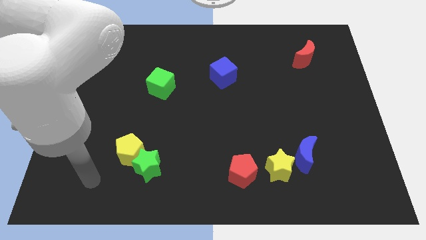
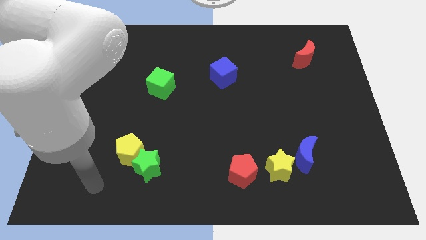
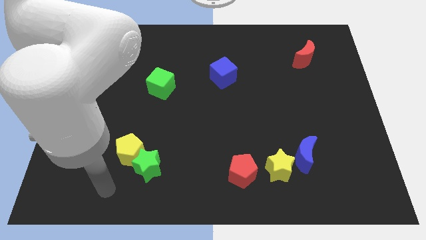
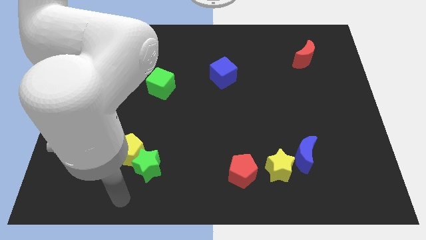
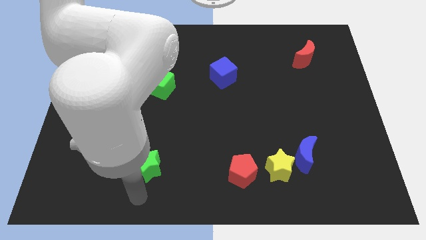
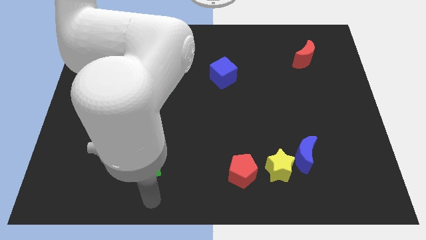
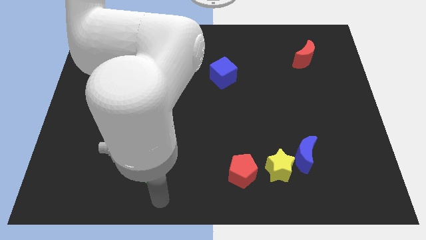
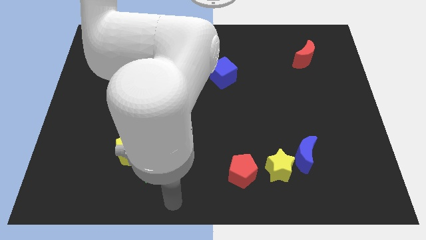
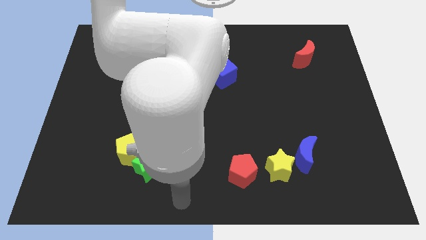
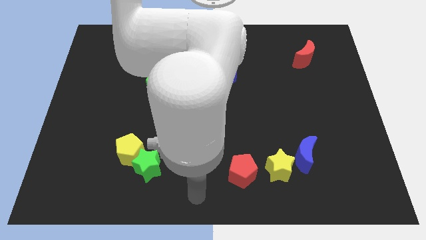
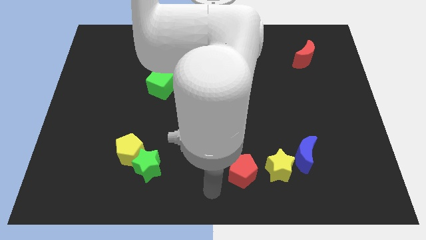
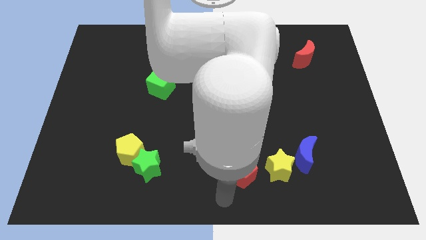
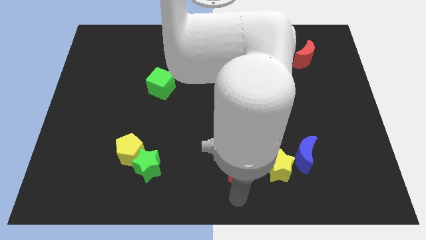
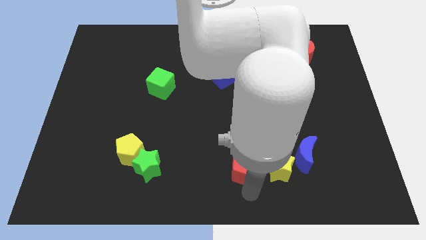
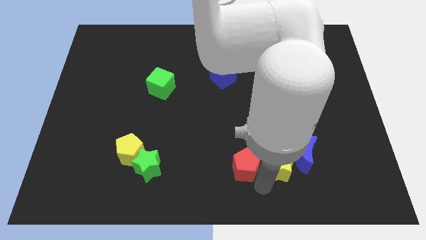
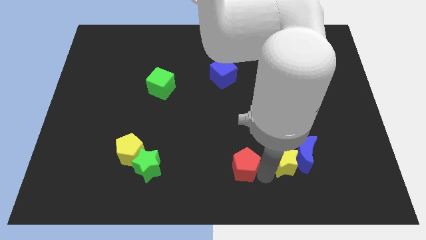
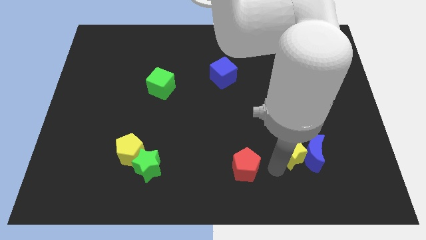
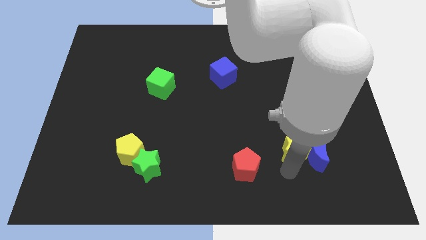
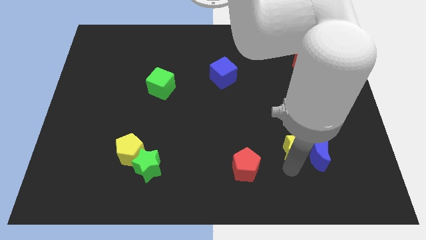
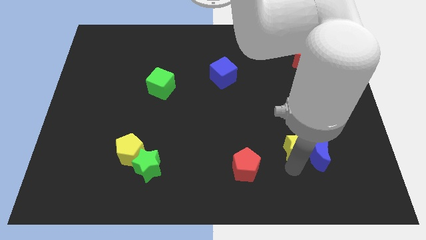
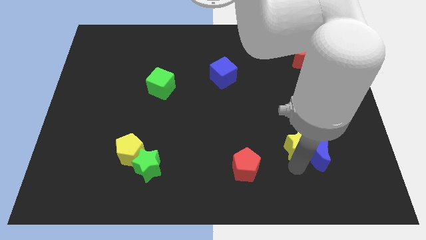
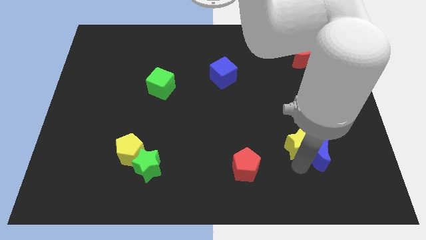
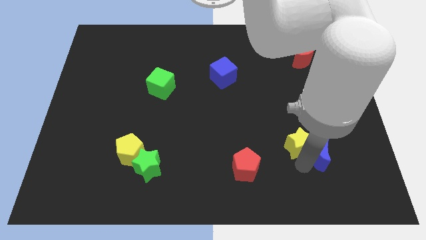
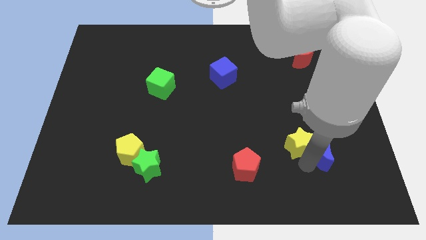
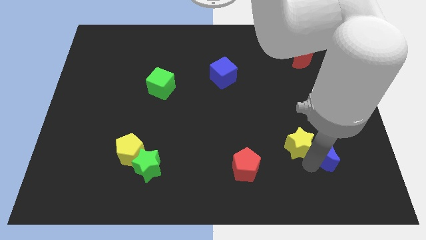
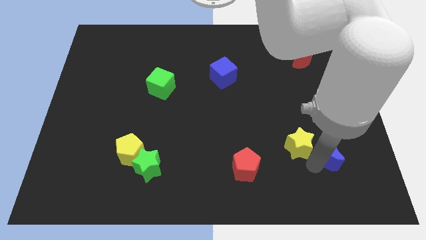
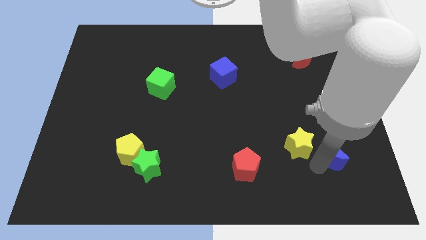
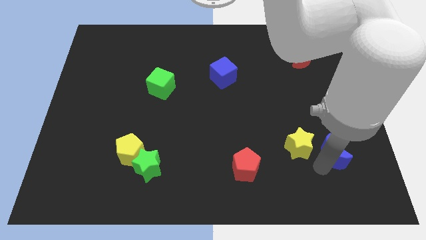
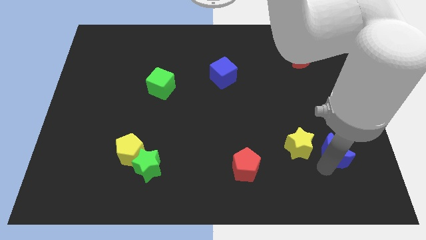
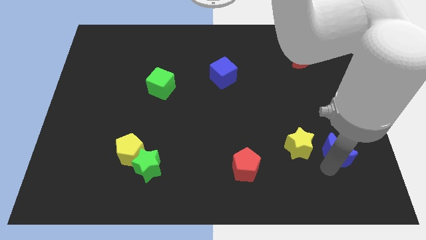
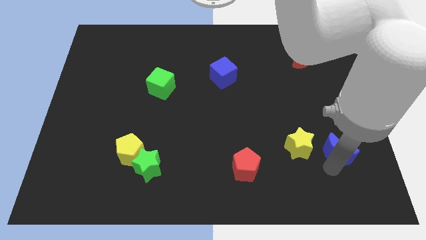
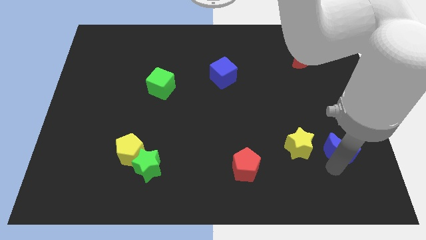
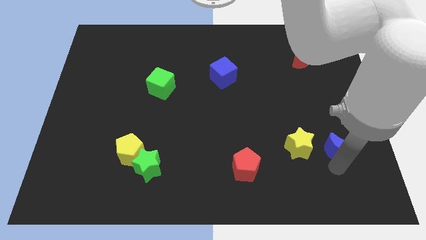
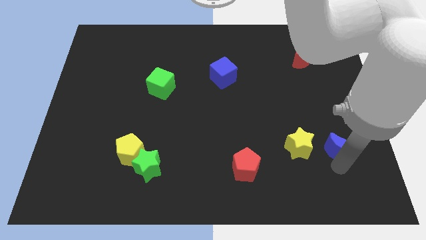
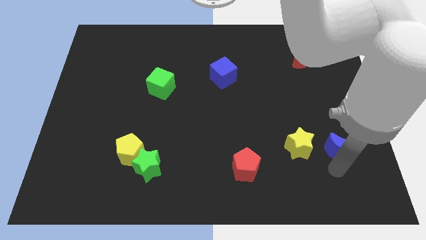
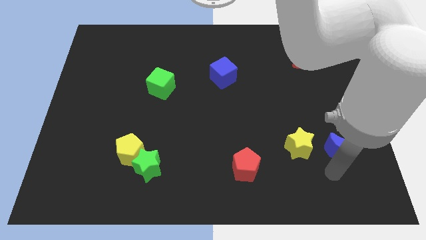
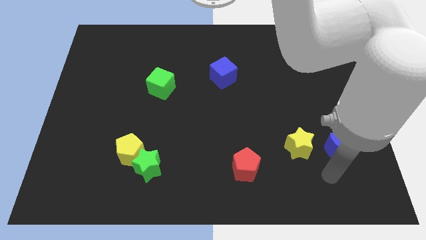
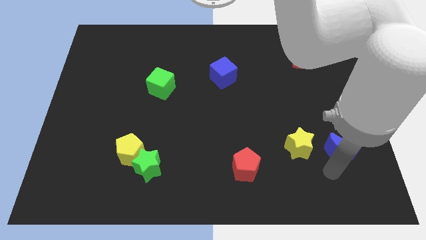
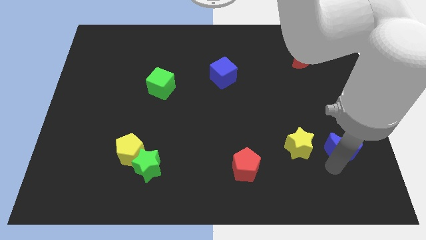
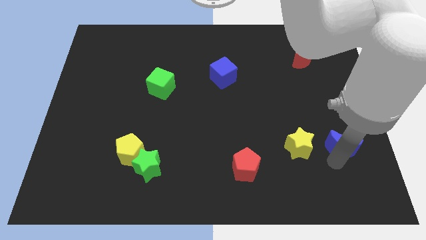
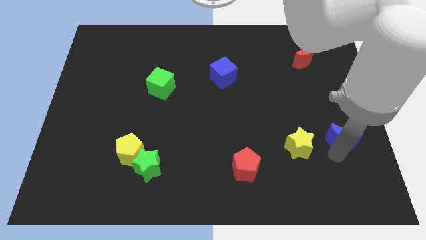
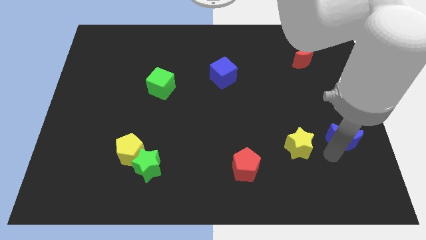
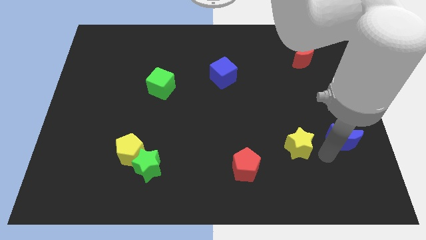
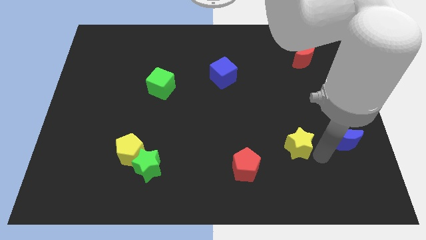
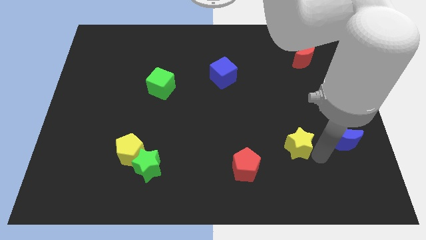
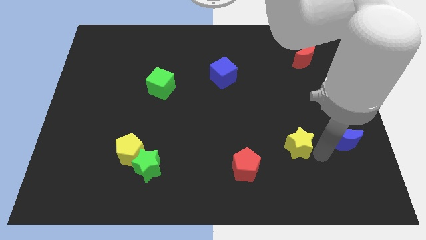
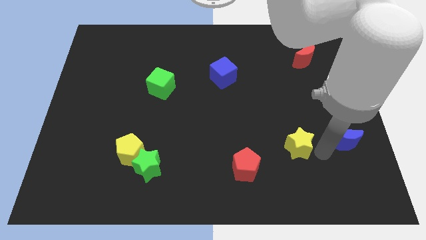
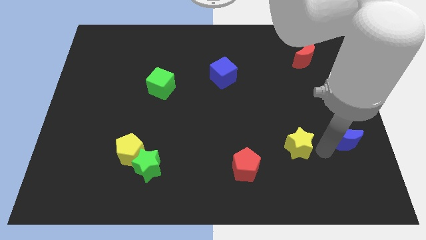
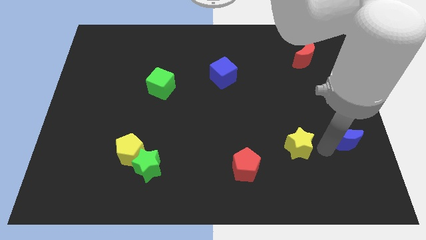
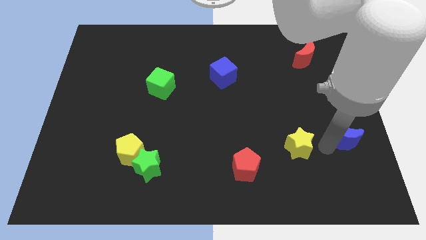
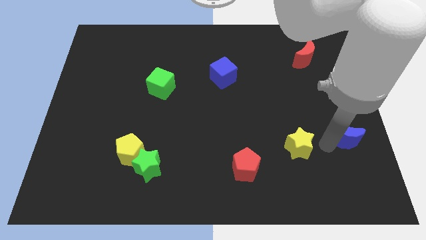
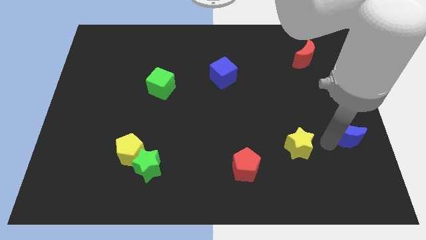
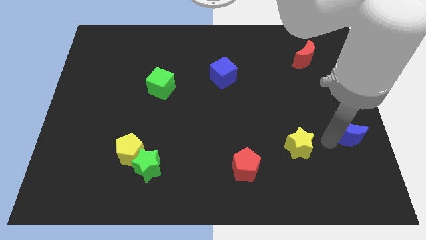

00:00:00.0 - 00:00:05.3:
put the blue moon to the right side

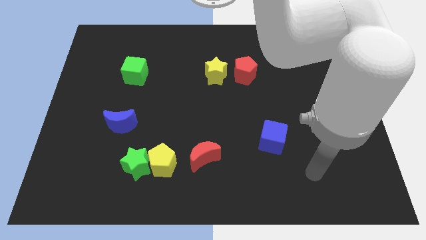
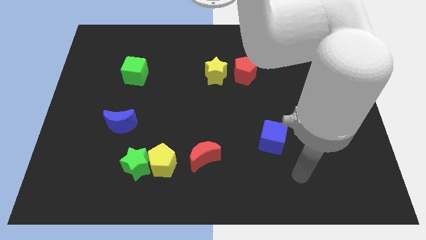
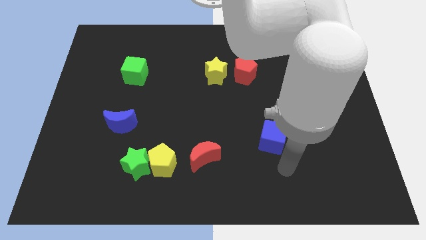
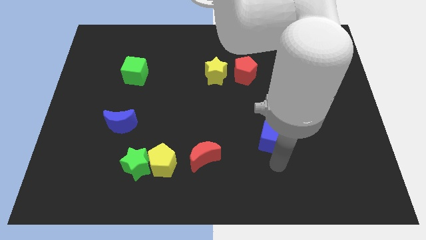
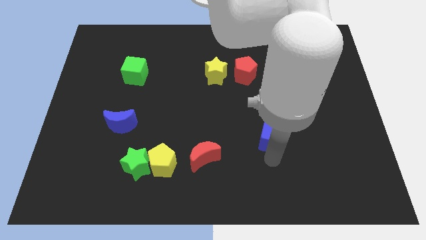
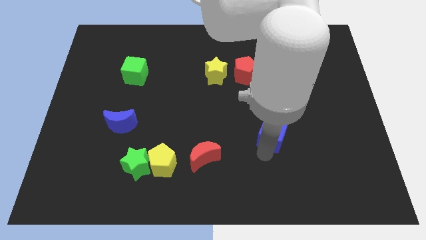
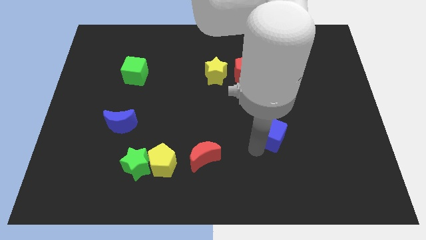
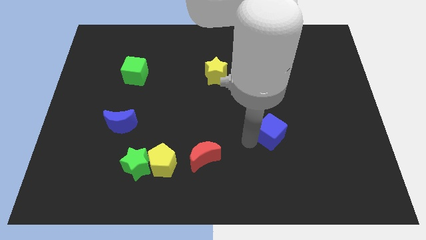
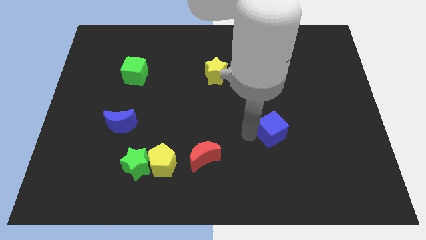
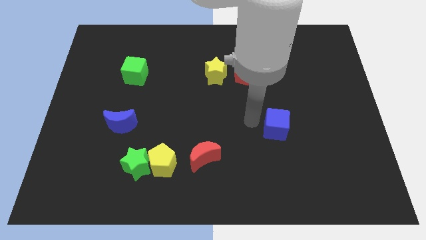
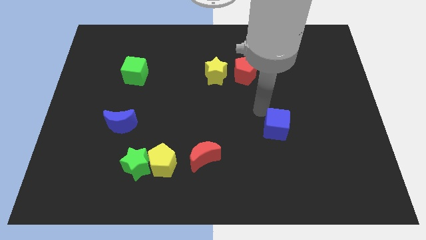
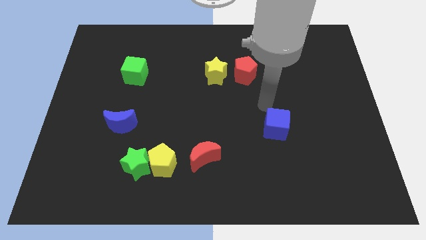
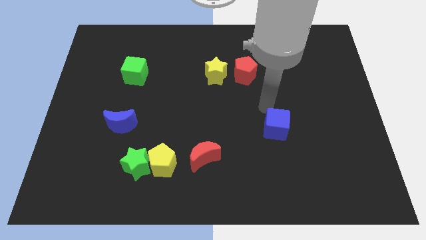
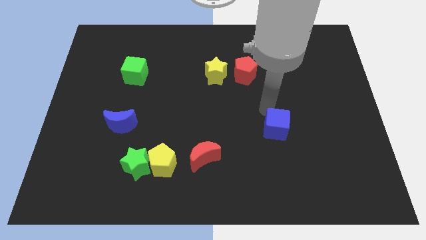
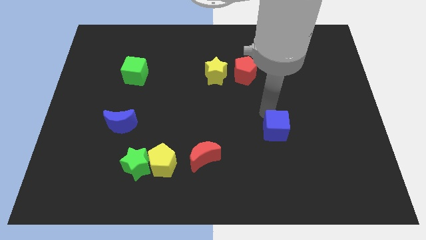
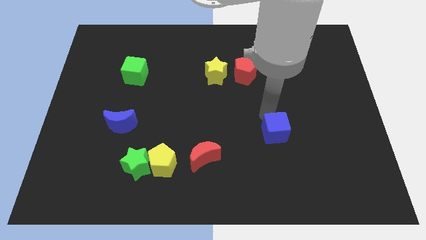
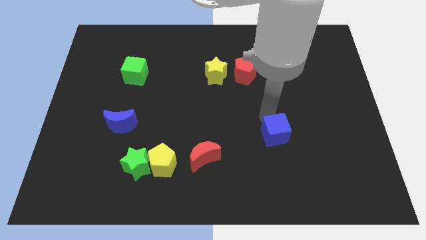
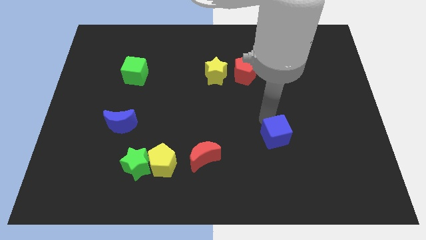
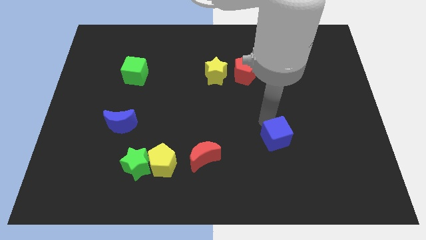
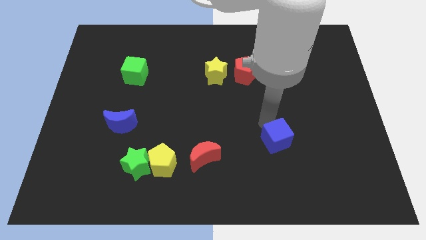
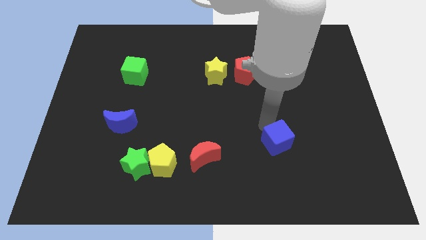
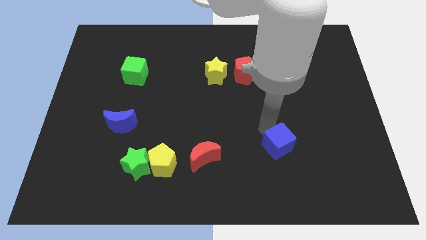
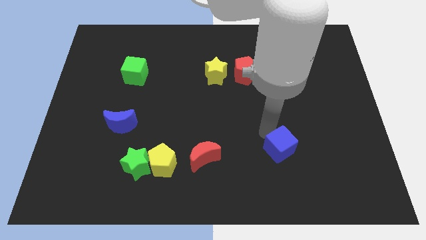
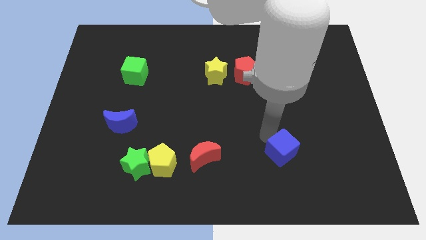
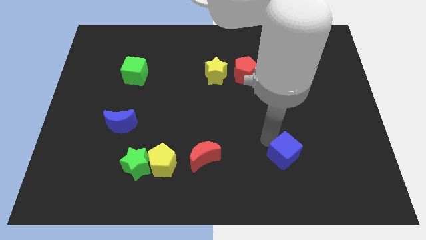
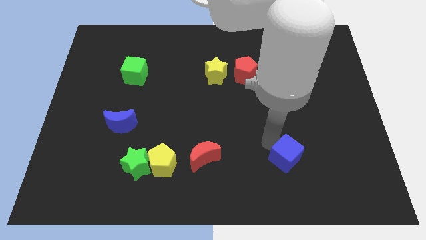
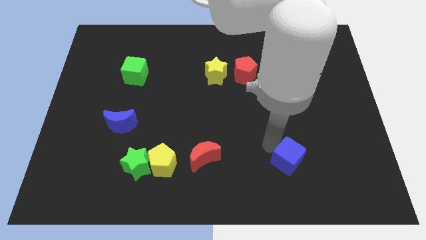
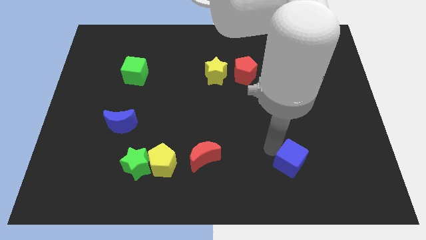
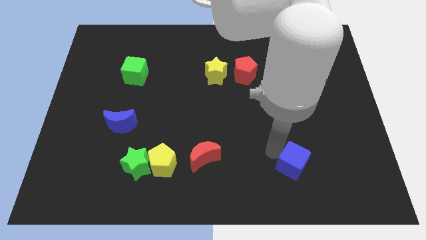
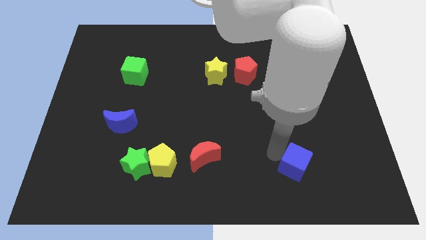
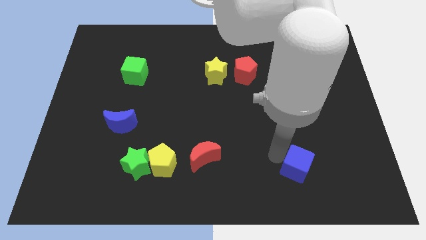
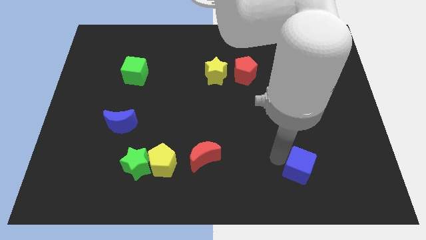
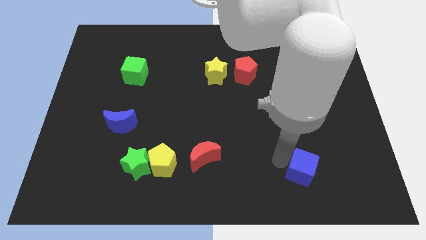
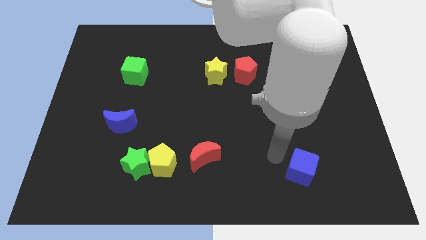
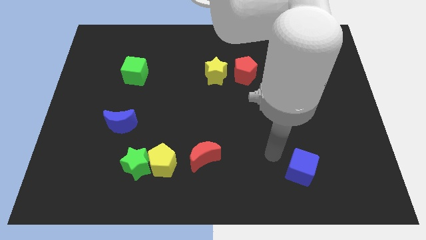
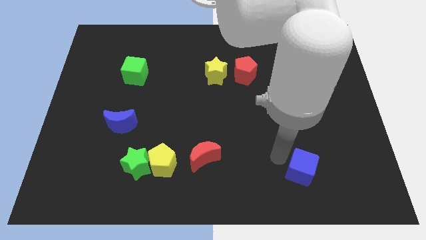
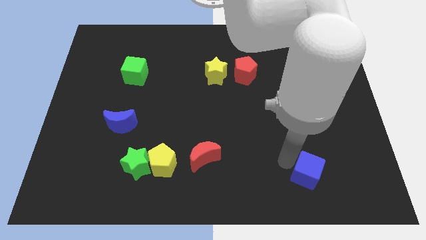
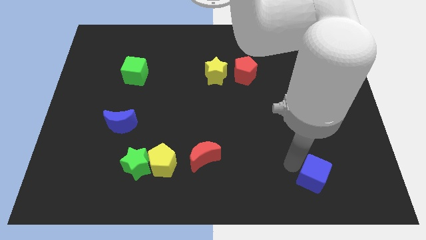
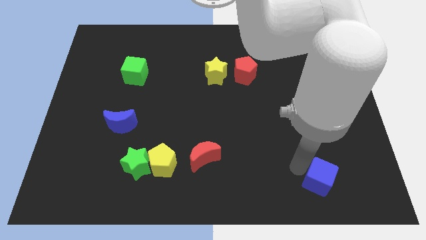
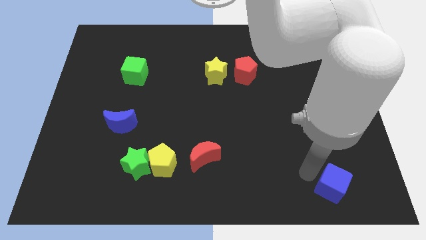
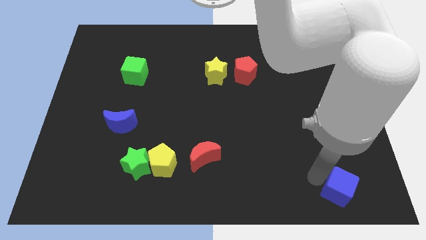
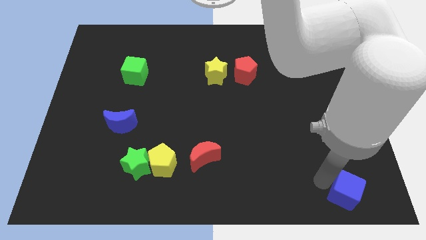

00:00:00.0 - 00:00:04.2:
put the blue cube to the lower right corner
